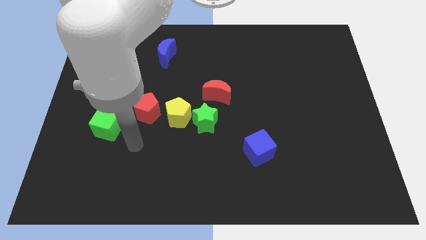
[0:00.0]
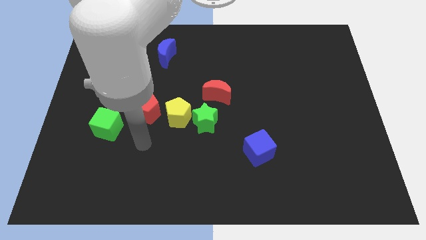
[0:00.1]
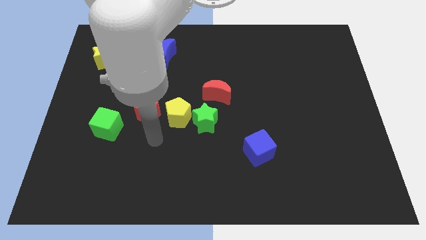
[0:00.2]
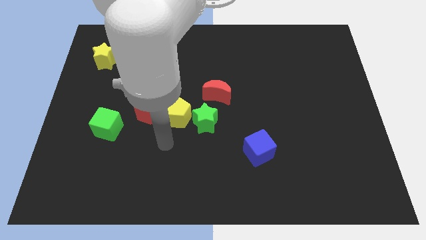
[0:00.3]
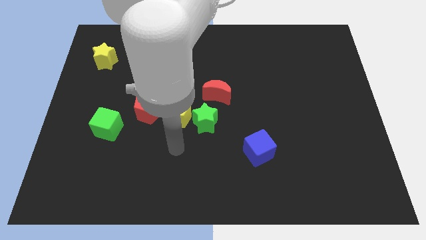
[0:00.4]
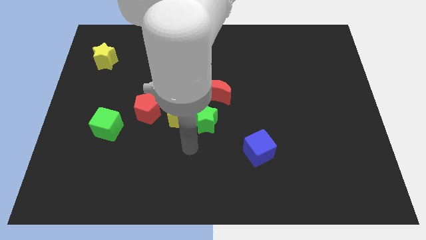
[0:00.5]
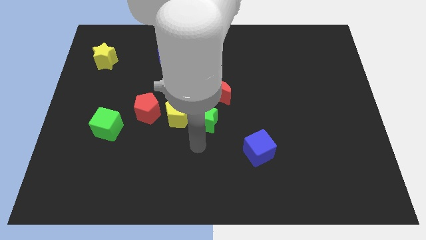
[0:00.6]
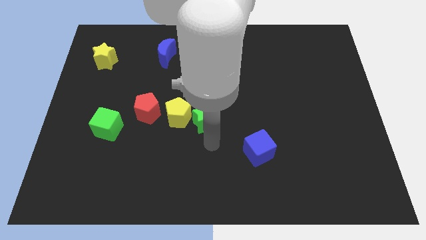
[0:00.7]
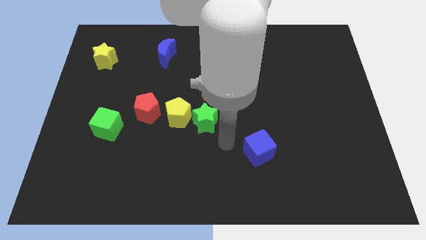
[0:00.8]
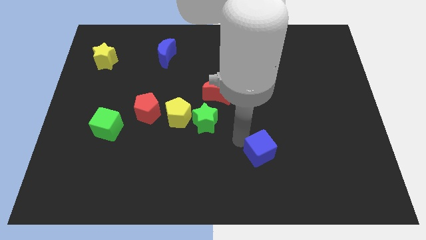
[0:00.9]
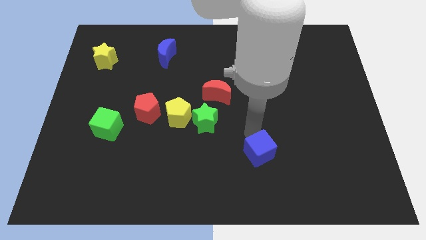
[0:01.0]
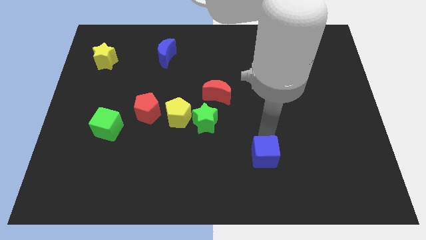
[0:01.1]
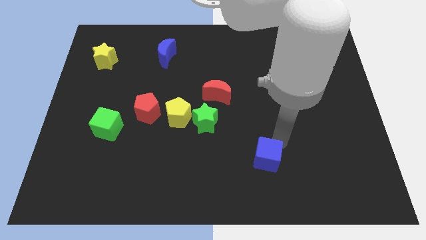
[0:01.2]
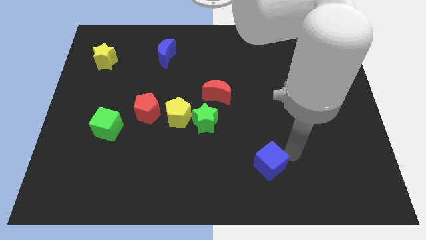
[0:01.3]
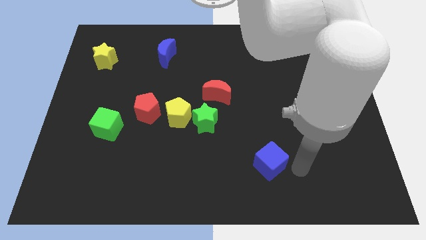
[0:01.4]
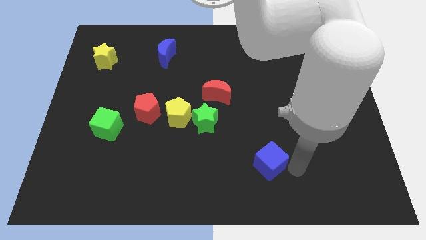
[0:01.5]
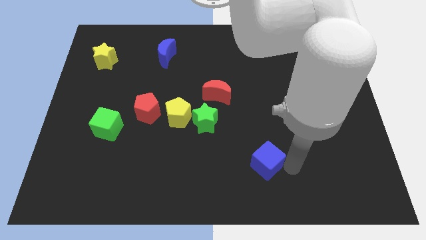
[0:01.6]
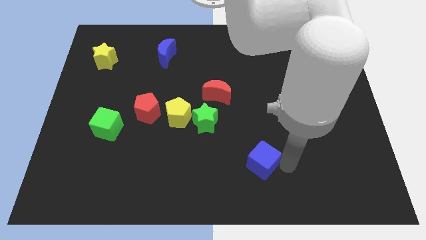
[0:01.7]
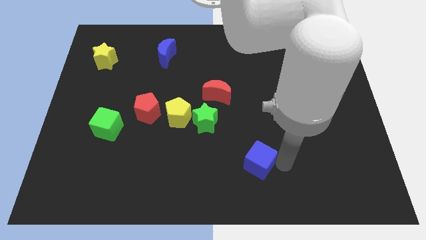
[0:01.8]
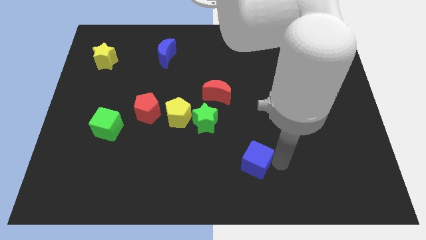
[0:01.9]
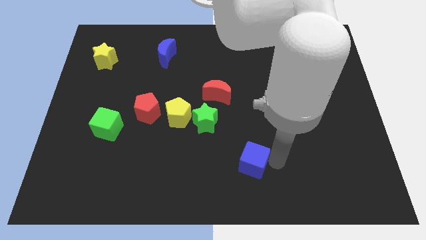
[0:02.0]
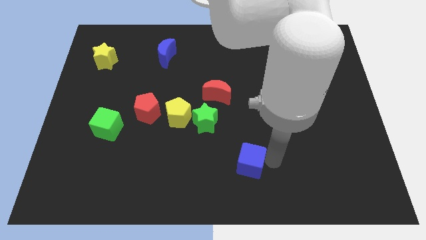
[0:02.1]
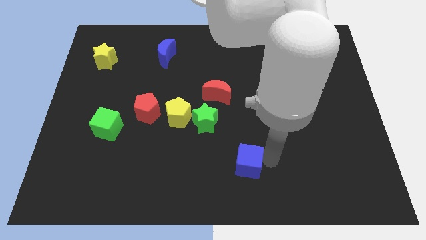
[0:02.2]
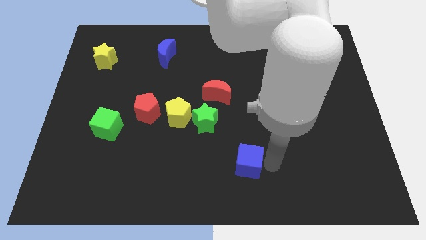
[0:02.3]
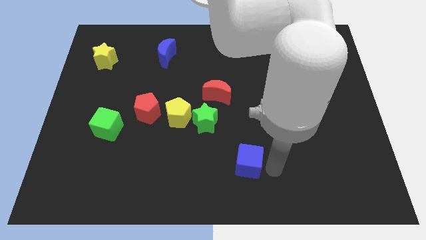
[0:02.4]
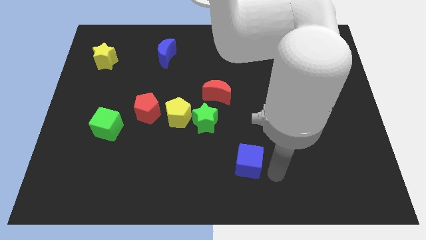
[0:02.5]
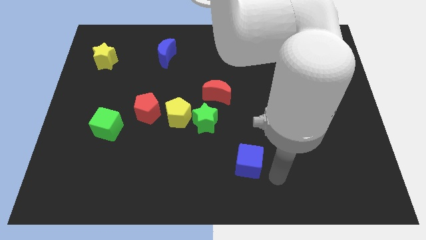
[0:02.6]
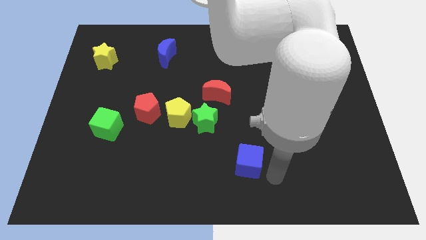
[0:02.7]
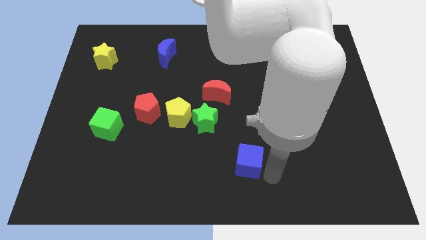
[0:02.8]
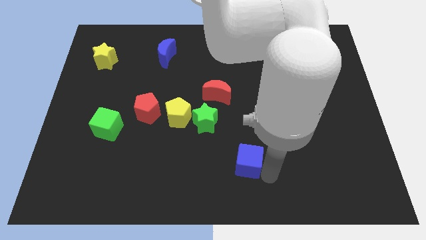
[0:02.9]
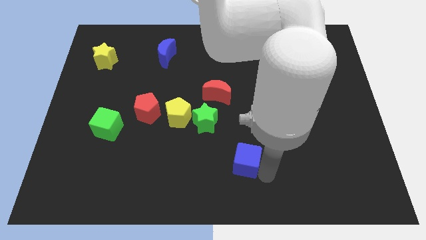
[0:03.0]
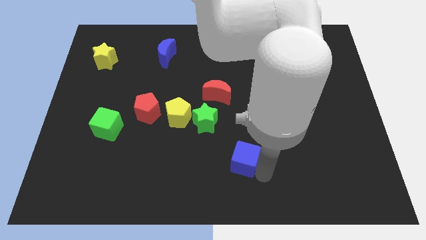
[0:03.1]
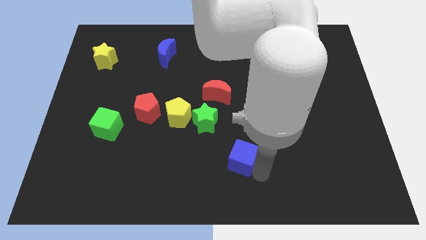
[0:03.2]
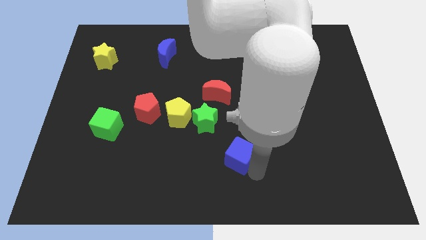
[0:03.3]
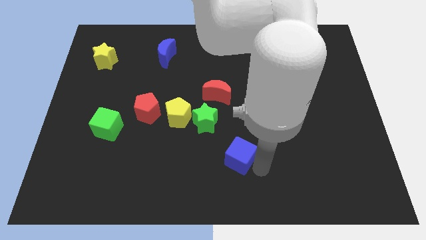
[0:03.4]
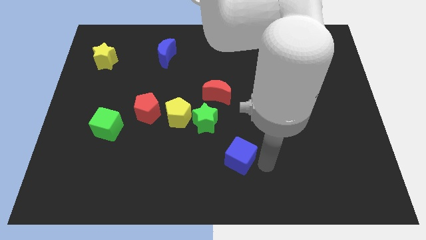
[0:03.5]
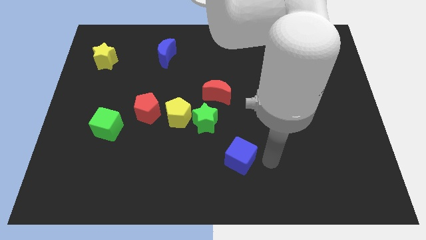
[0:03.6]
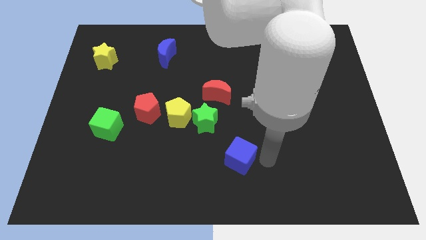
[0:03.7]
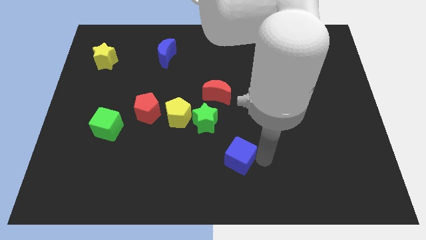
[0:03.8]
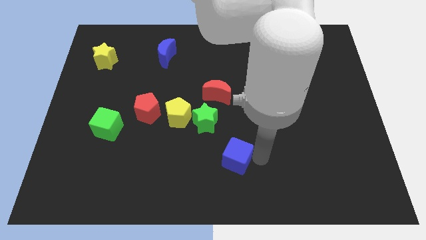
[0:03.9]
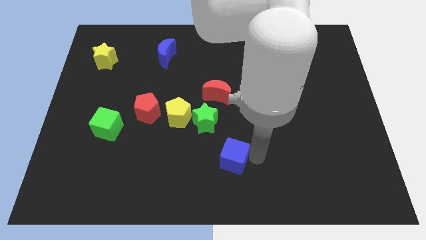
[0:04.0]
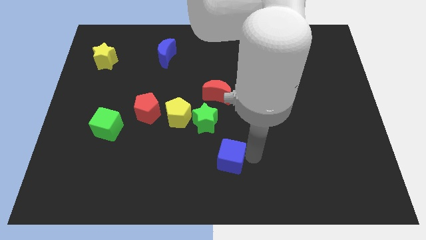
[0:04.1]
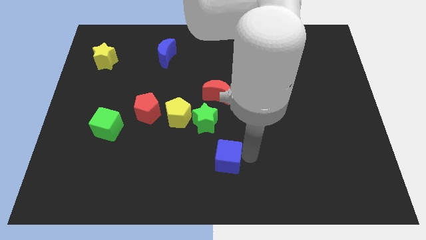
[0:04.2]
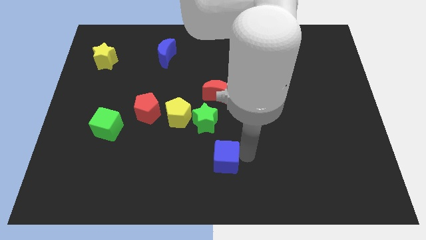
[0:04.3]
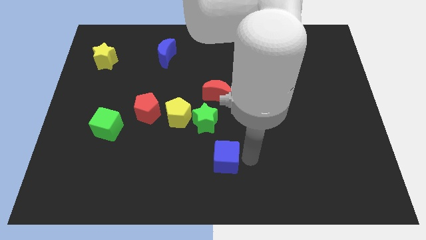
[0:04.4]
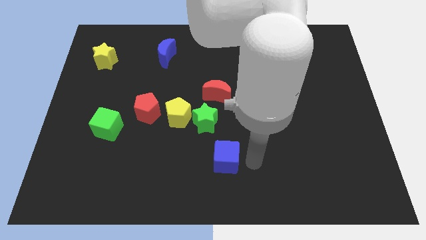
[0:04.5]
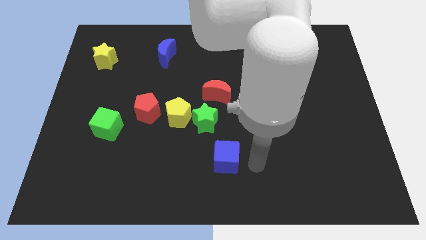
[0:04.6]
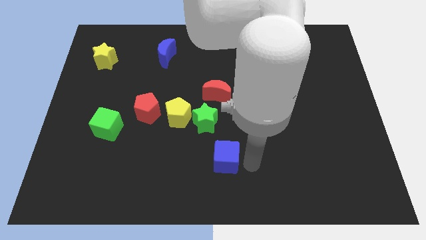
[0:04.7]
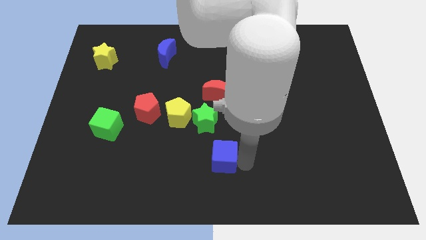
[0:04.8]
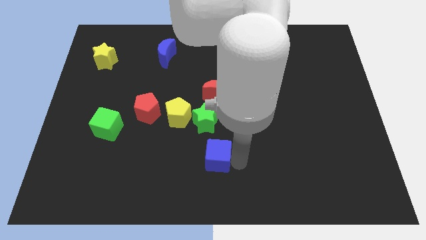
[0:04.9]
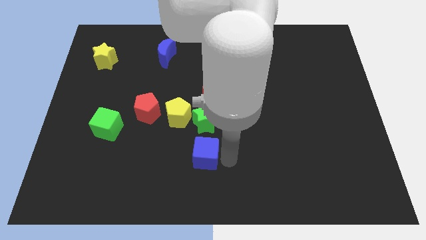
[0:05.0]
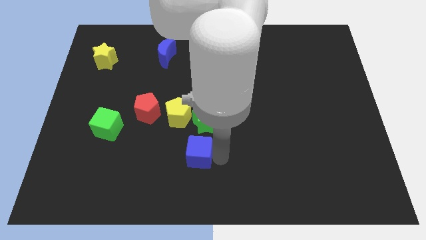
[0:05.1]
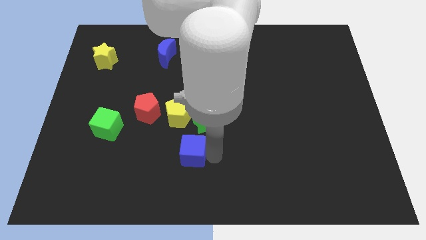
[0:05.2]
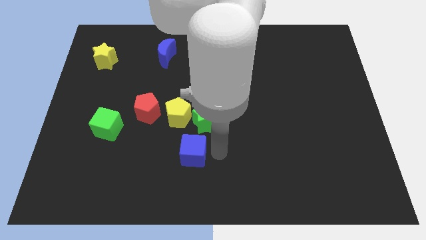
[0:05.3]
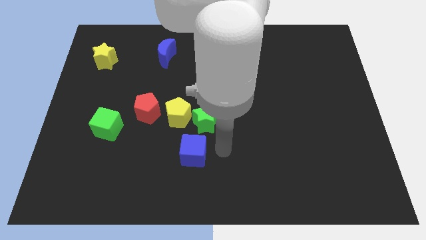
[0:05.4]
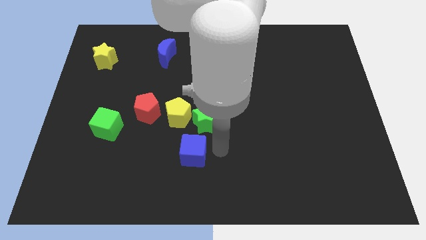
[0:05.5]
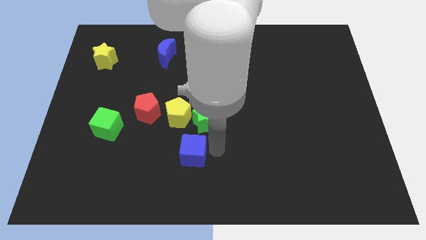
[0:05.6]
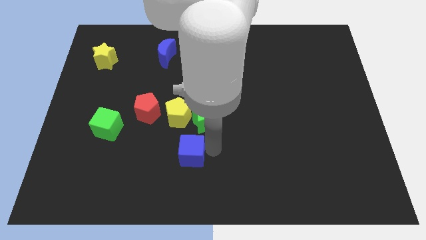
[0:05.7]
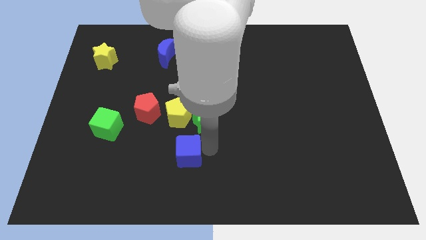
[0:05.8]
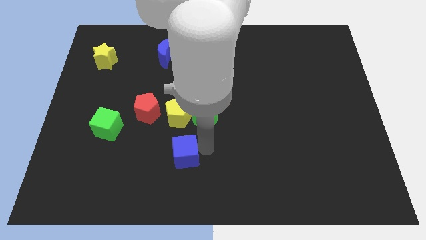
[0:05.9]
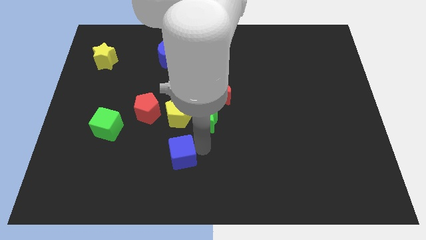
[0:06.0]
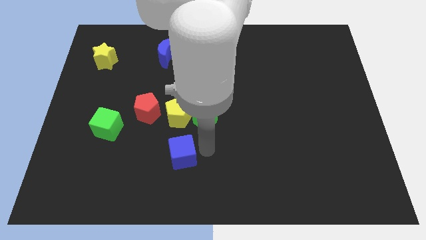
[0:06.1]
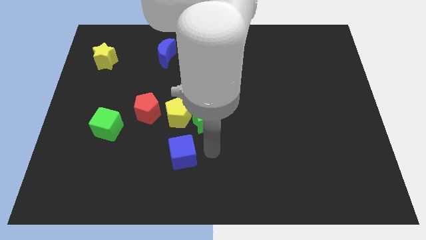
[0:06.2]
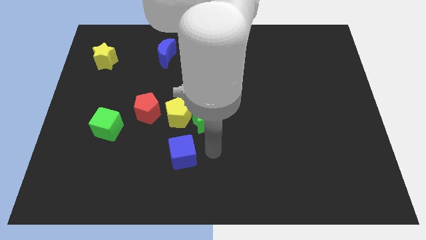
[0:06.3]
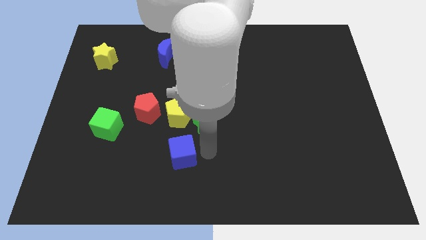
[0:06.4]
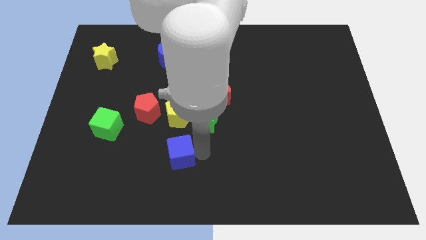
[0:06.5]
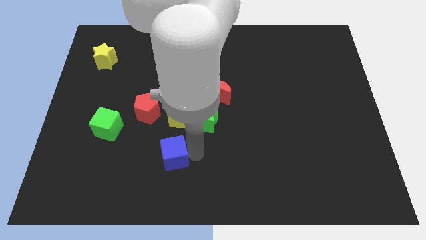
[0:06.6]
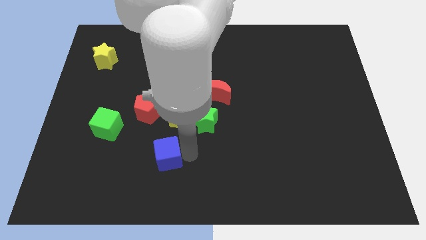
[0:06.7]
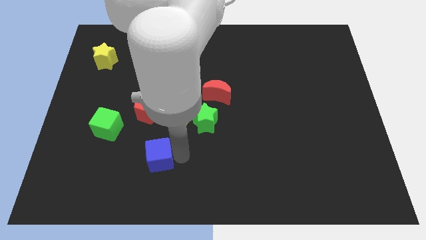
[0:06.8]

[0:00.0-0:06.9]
move the blue cube left

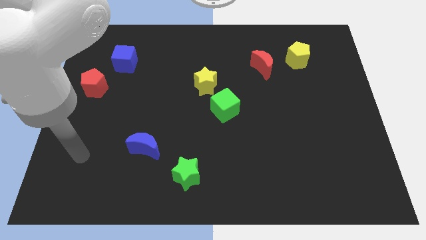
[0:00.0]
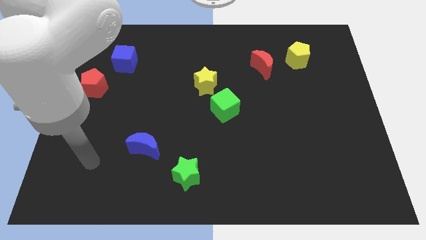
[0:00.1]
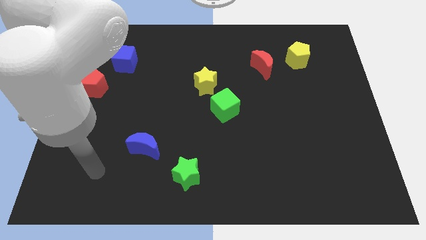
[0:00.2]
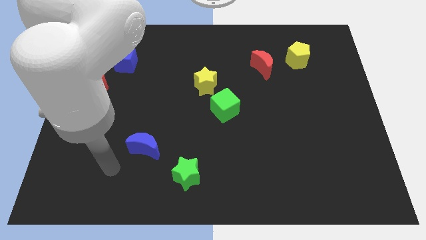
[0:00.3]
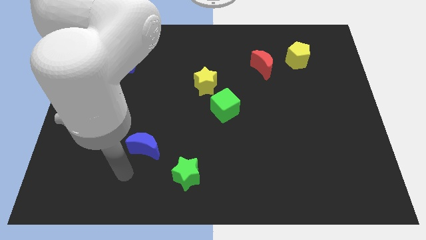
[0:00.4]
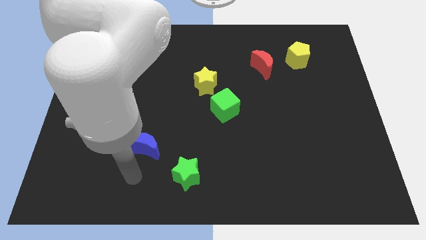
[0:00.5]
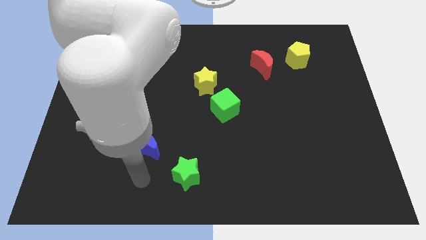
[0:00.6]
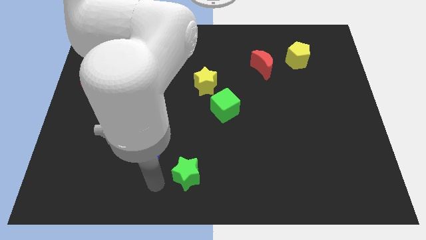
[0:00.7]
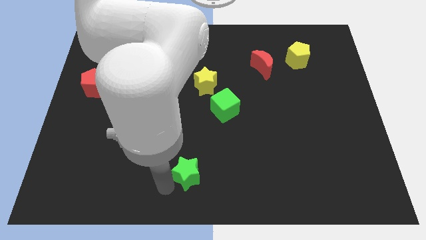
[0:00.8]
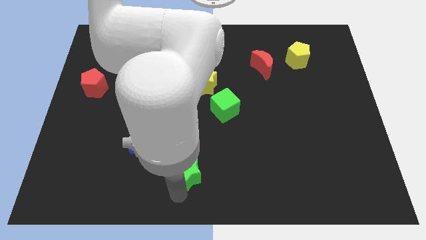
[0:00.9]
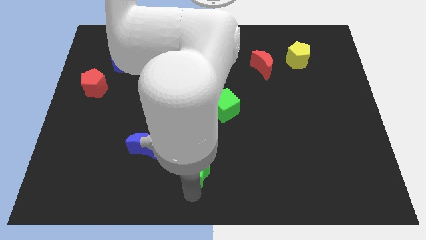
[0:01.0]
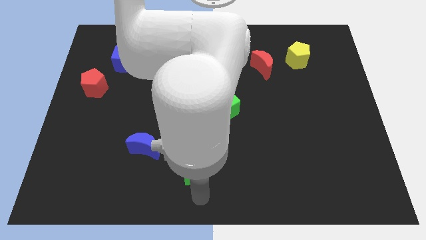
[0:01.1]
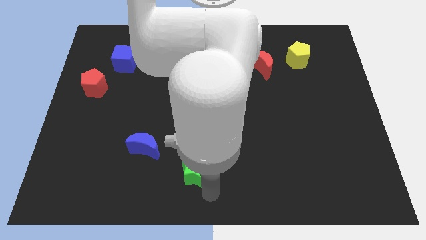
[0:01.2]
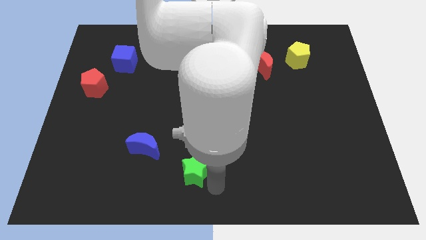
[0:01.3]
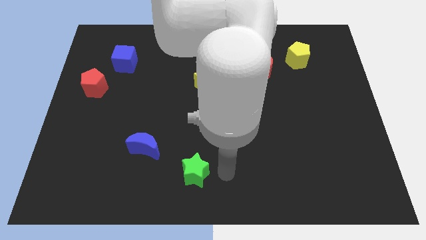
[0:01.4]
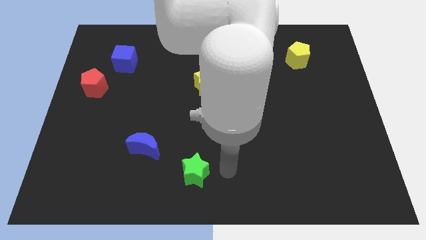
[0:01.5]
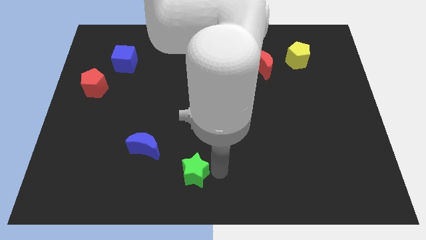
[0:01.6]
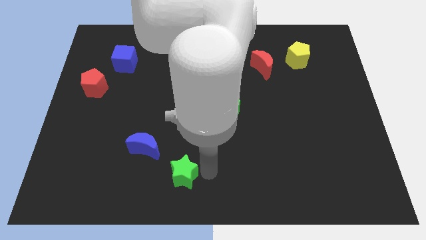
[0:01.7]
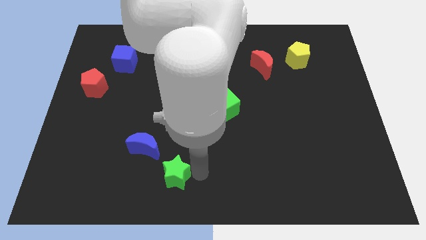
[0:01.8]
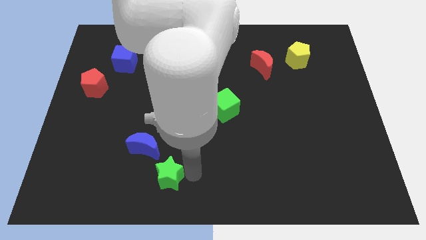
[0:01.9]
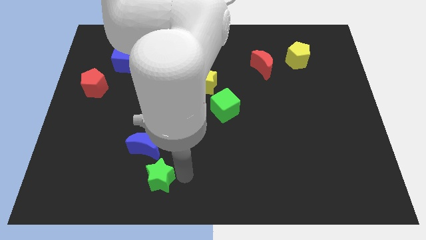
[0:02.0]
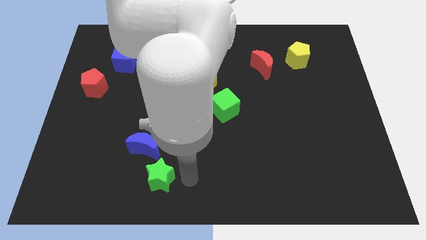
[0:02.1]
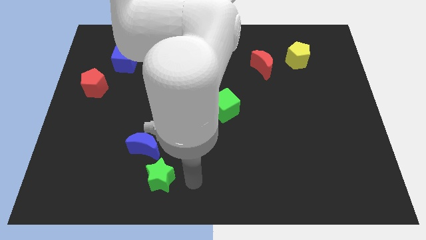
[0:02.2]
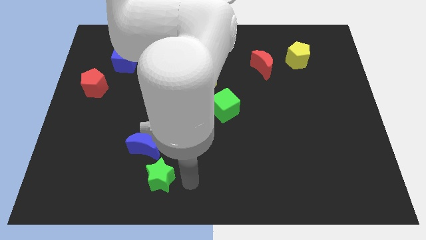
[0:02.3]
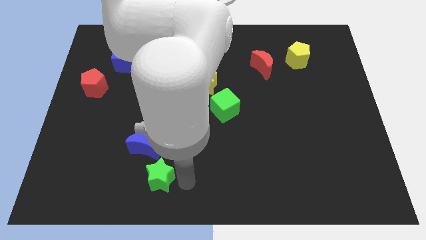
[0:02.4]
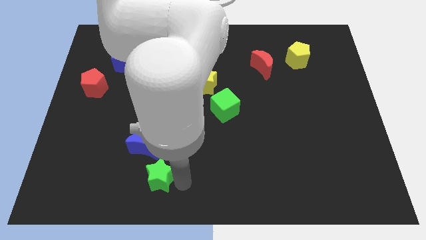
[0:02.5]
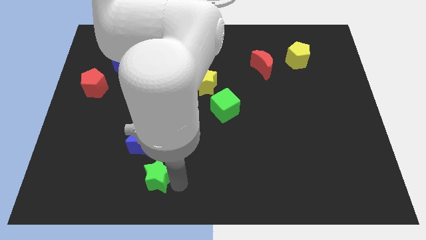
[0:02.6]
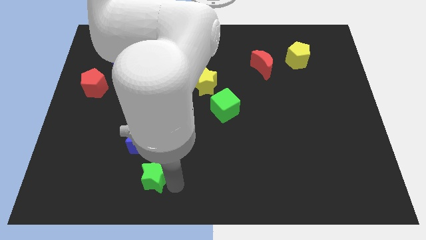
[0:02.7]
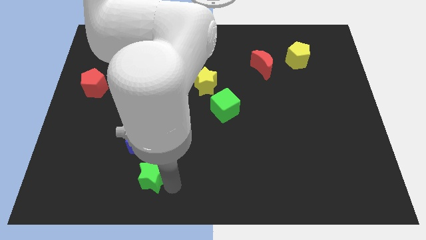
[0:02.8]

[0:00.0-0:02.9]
slide the green star to the left a little bit
